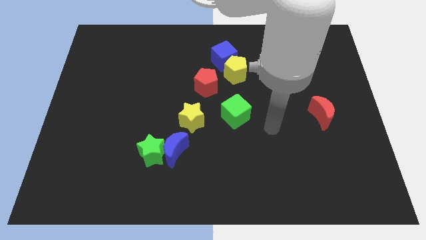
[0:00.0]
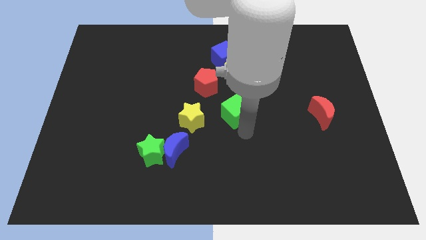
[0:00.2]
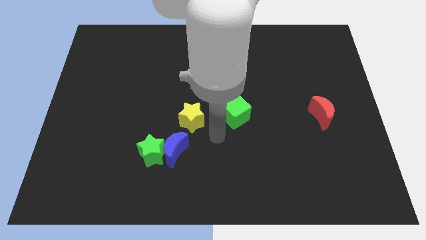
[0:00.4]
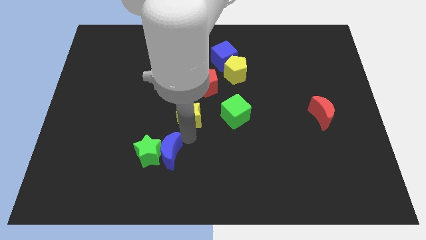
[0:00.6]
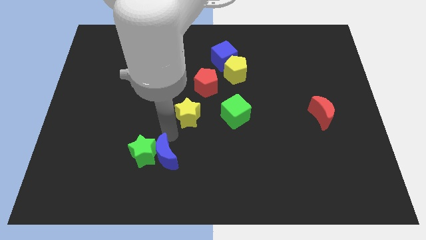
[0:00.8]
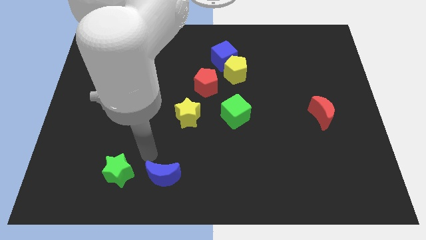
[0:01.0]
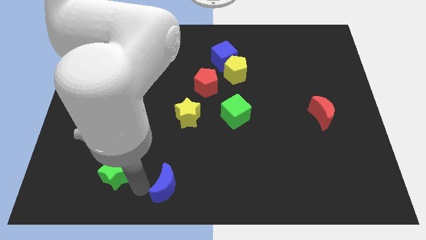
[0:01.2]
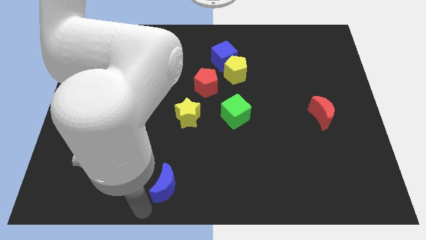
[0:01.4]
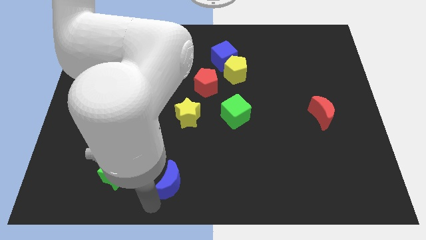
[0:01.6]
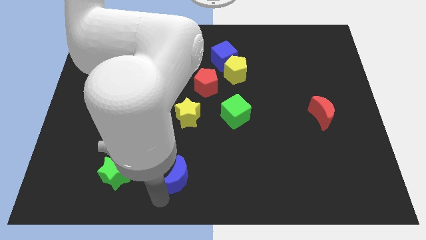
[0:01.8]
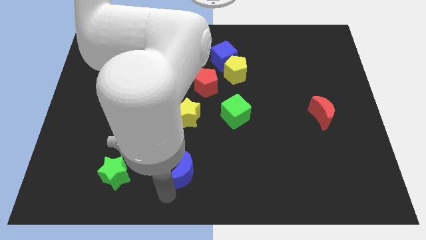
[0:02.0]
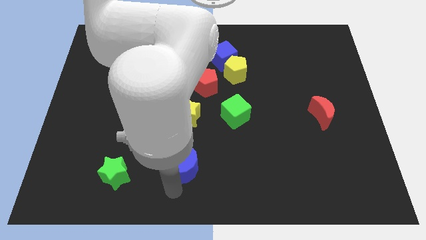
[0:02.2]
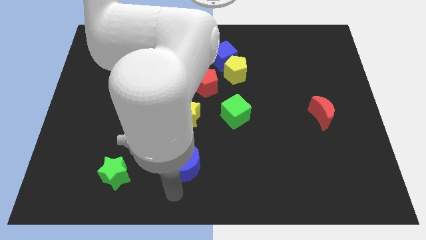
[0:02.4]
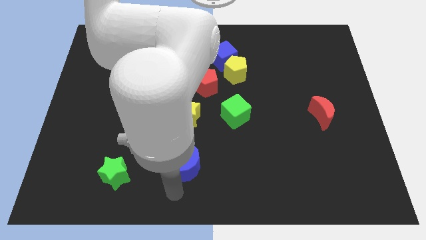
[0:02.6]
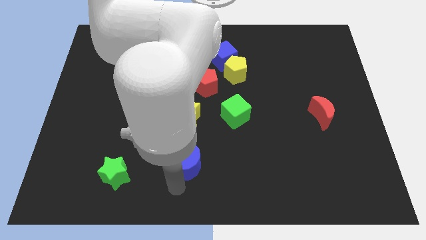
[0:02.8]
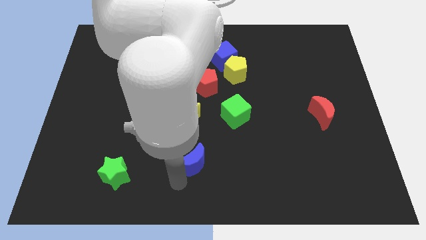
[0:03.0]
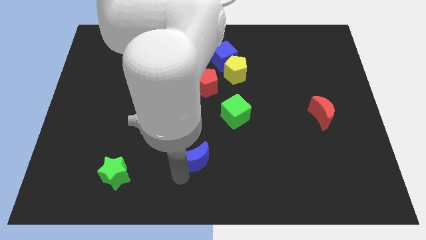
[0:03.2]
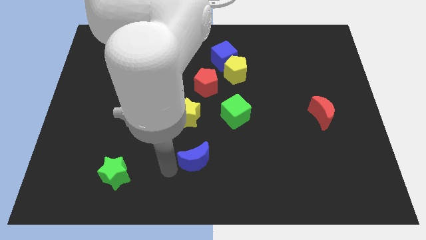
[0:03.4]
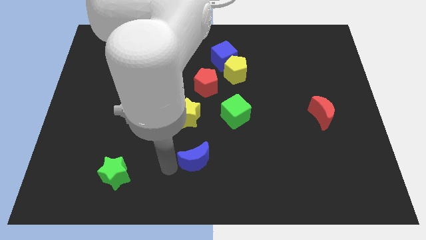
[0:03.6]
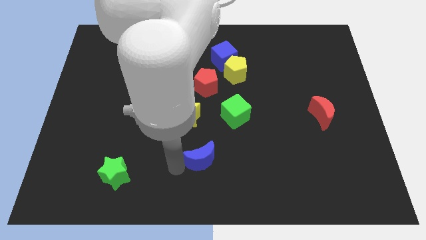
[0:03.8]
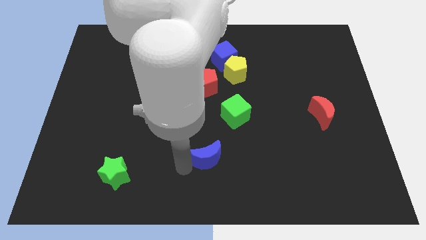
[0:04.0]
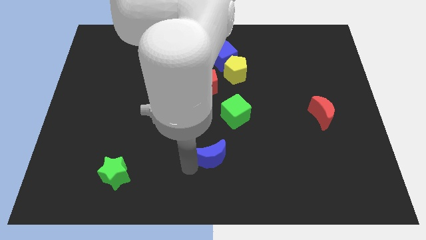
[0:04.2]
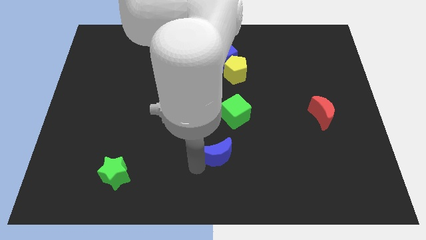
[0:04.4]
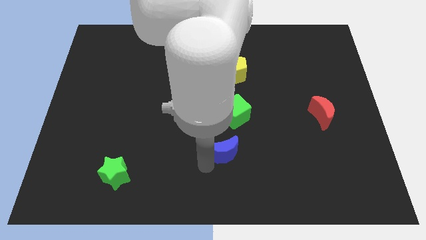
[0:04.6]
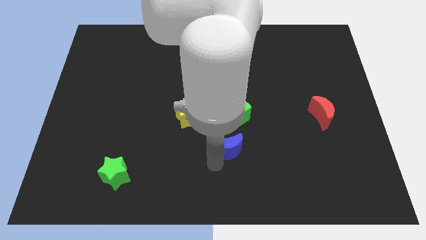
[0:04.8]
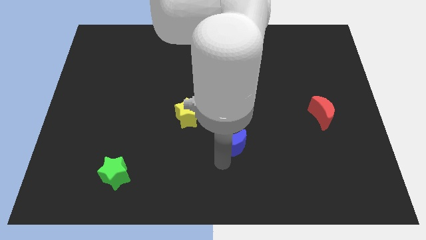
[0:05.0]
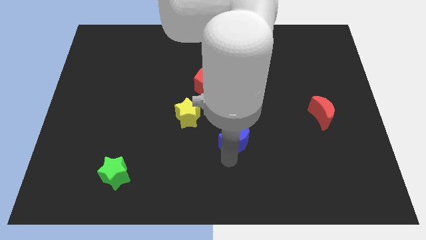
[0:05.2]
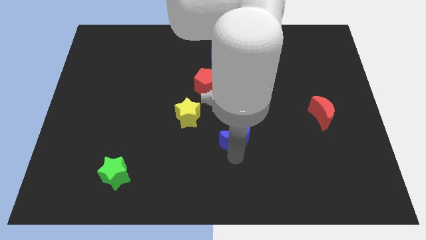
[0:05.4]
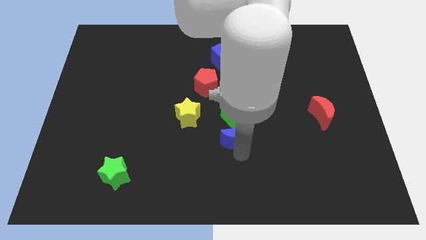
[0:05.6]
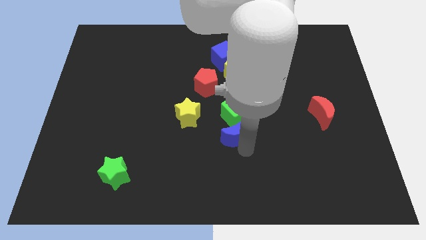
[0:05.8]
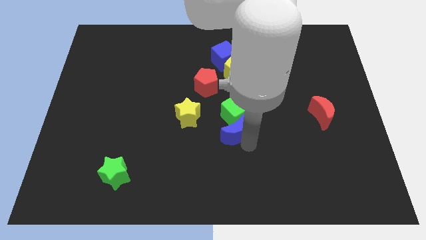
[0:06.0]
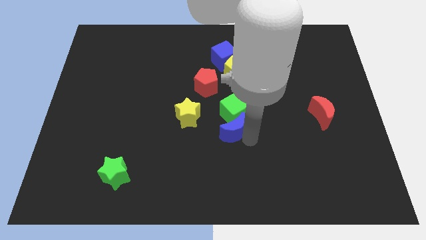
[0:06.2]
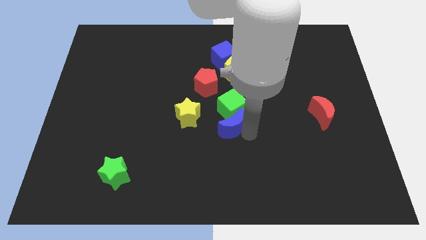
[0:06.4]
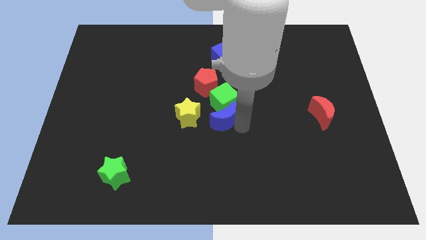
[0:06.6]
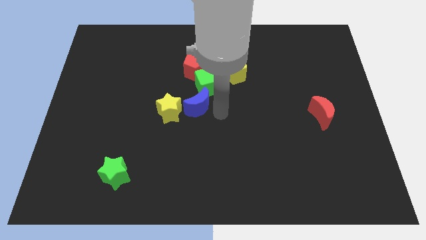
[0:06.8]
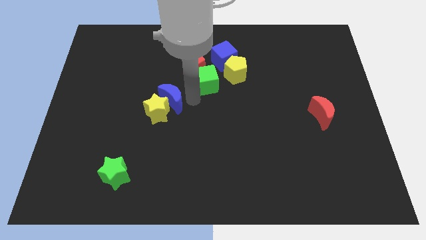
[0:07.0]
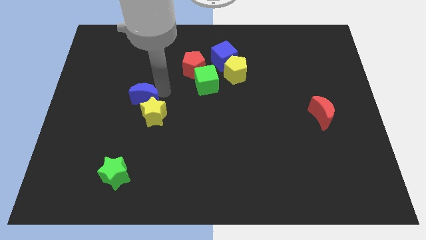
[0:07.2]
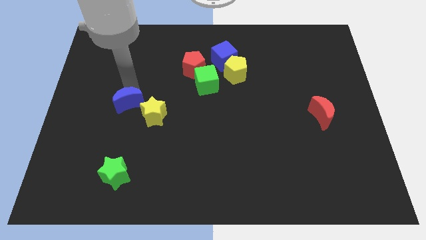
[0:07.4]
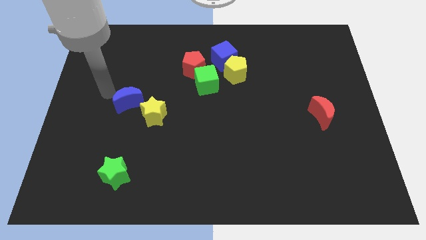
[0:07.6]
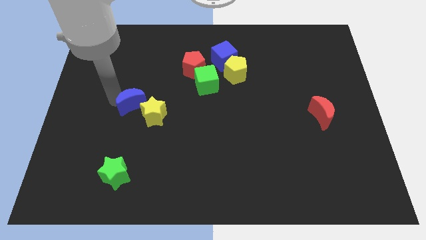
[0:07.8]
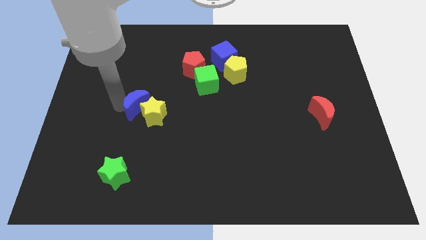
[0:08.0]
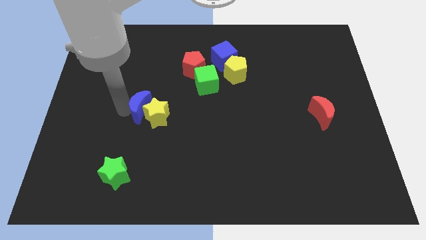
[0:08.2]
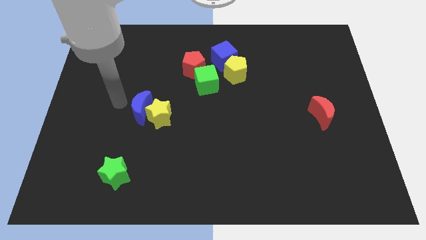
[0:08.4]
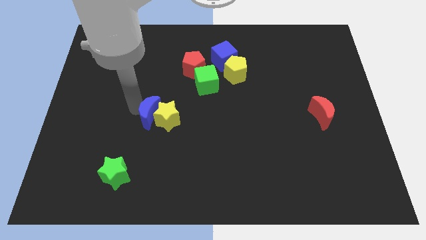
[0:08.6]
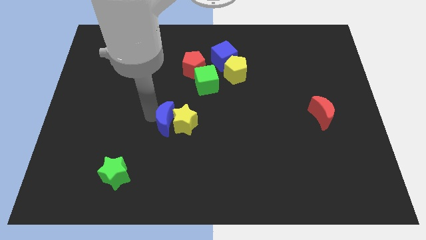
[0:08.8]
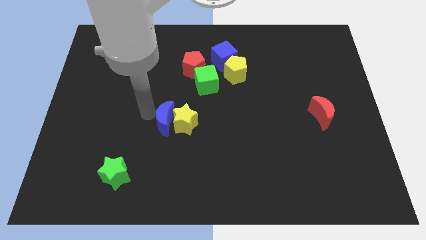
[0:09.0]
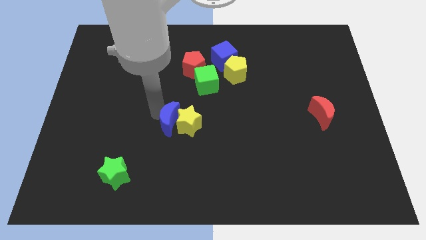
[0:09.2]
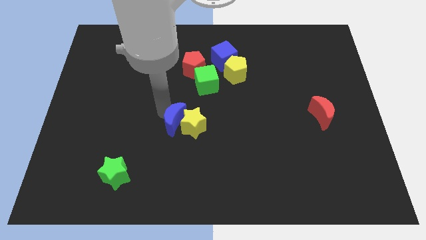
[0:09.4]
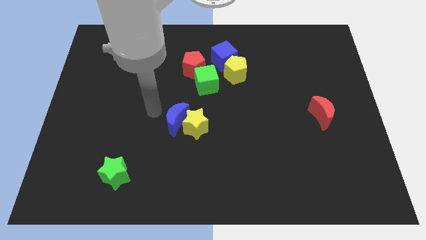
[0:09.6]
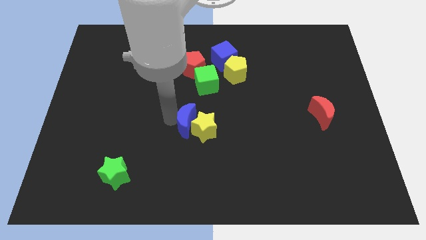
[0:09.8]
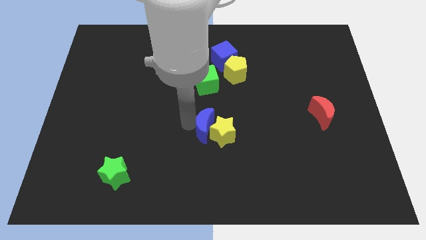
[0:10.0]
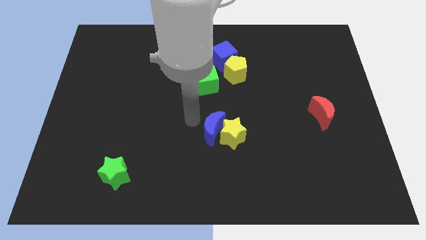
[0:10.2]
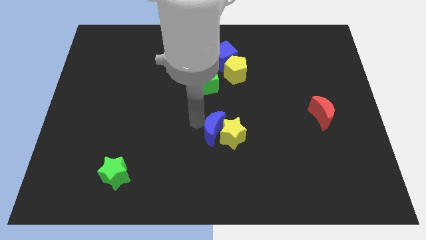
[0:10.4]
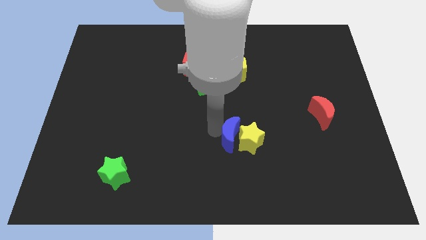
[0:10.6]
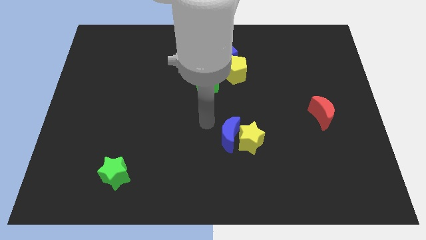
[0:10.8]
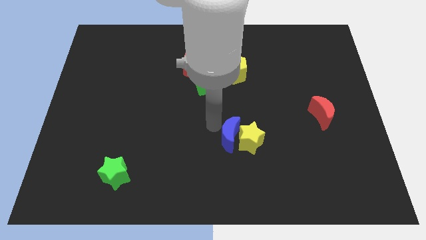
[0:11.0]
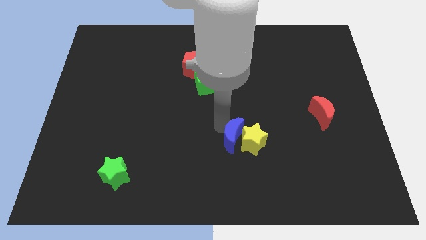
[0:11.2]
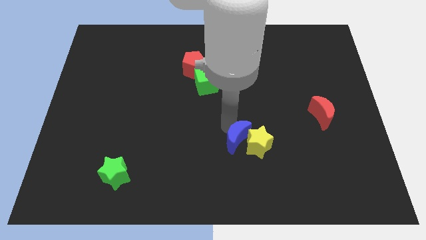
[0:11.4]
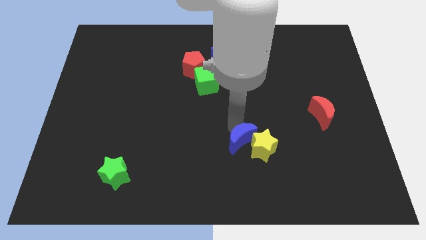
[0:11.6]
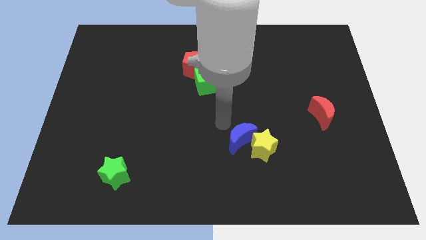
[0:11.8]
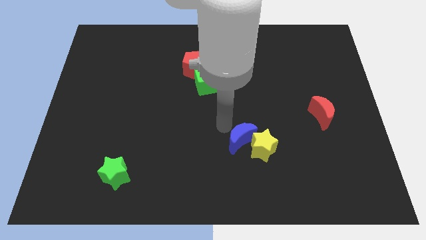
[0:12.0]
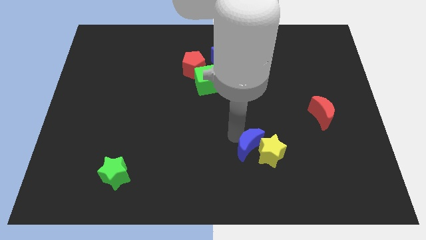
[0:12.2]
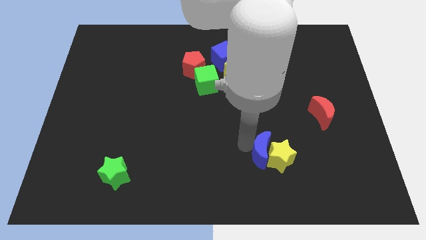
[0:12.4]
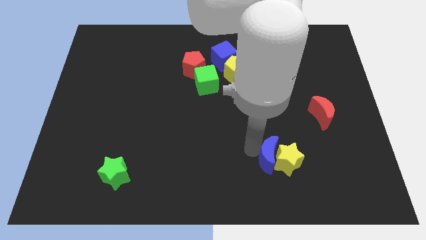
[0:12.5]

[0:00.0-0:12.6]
push the blue moon right

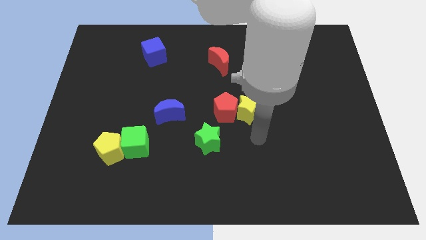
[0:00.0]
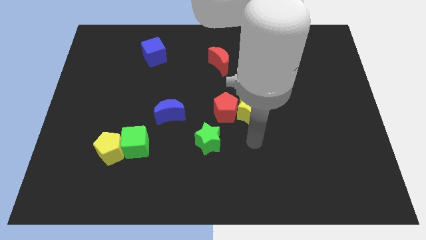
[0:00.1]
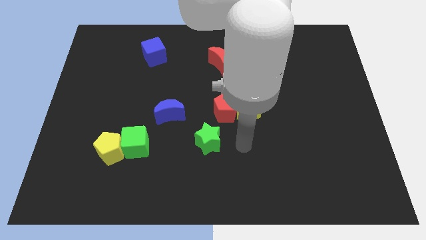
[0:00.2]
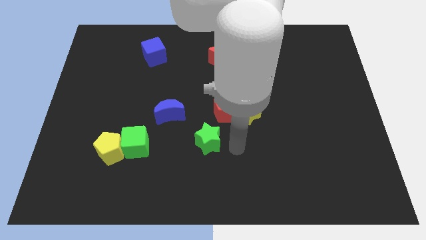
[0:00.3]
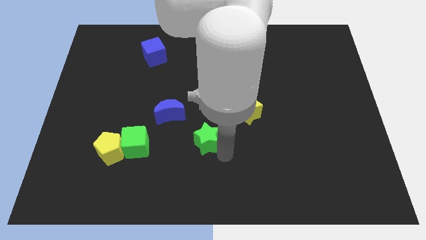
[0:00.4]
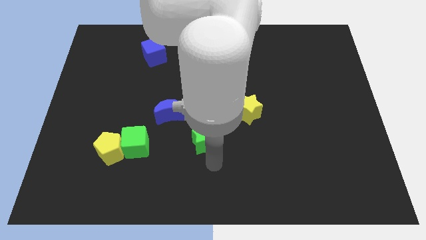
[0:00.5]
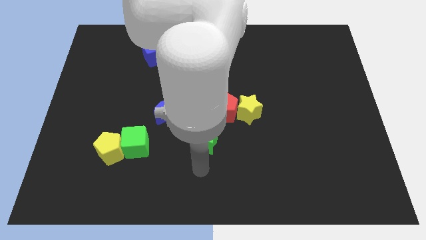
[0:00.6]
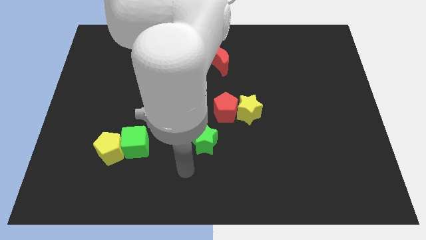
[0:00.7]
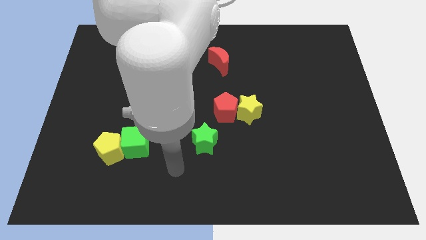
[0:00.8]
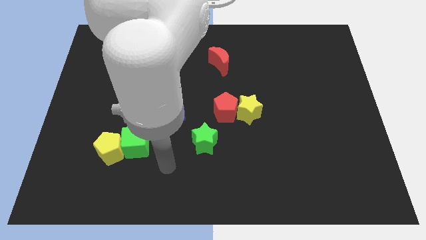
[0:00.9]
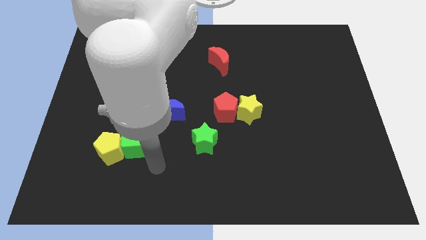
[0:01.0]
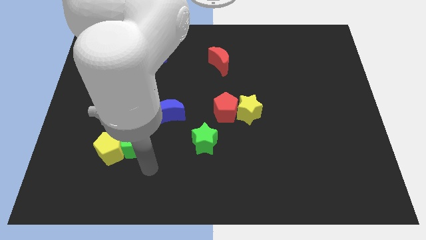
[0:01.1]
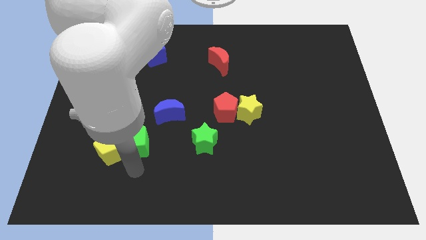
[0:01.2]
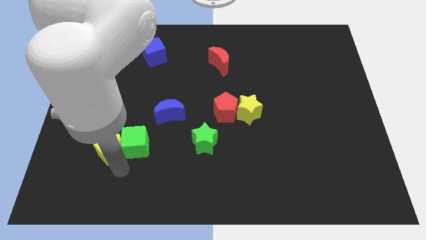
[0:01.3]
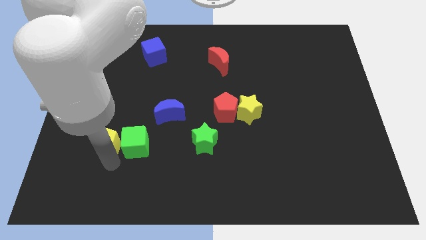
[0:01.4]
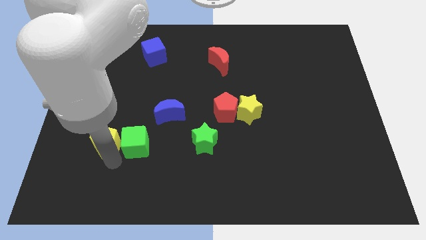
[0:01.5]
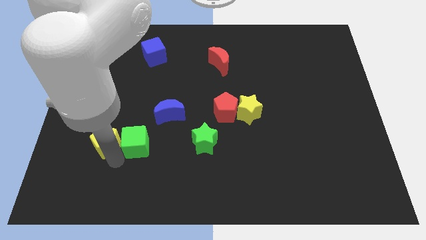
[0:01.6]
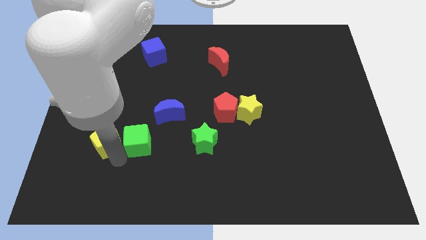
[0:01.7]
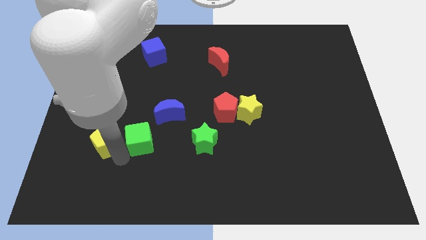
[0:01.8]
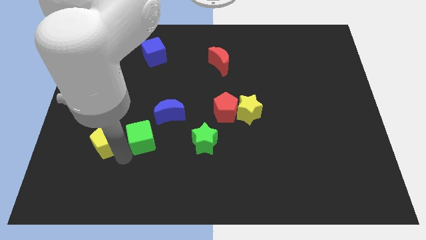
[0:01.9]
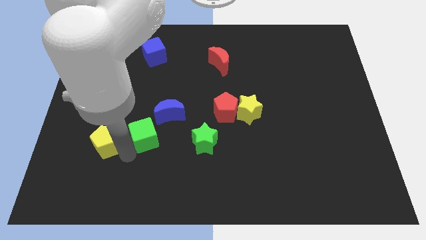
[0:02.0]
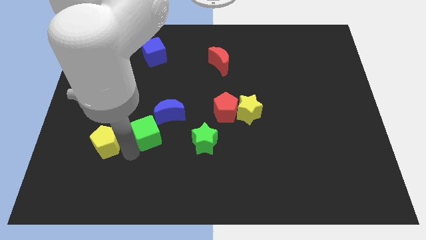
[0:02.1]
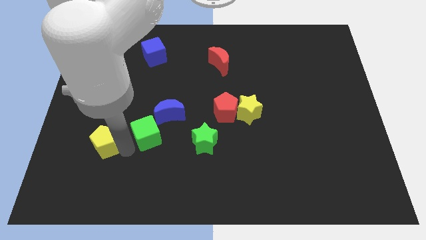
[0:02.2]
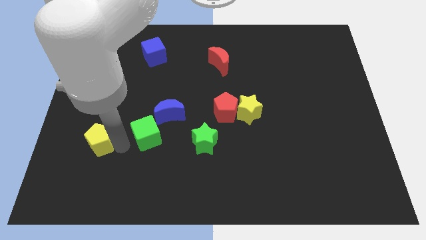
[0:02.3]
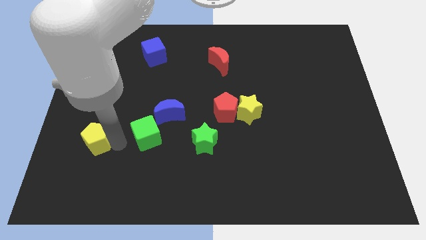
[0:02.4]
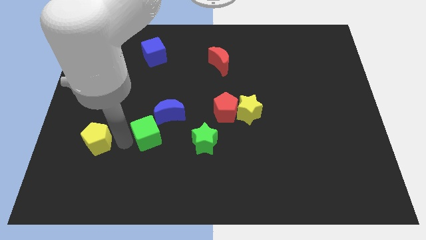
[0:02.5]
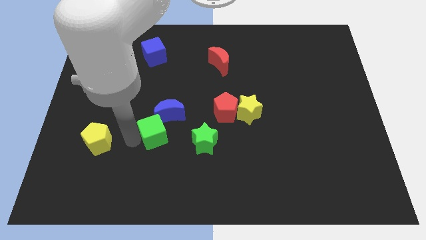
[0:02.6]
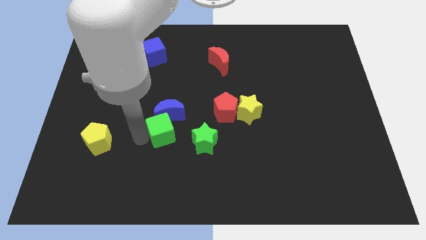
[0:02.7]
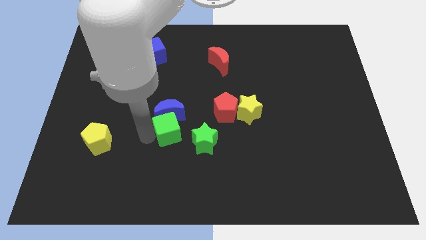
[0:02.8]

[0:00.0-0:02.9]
slide the green cube upwards and then right a bit
